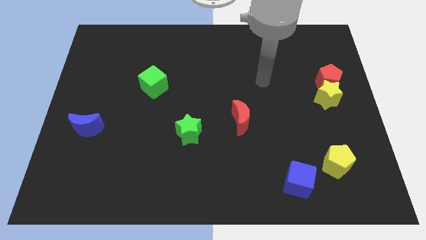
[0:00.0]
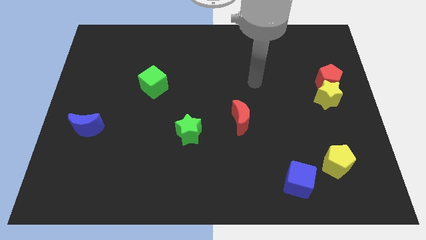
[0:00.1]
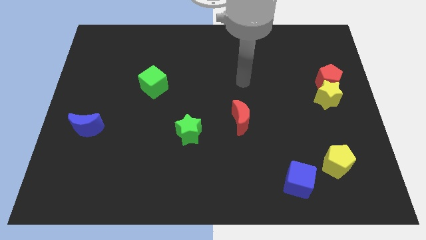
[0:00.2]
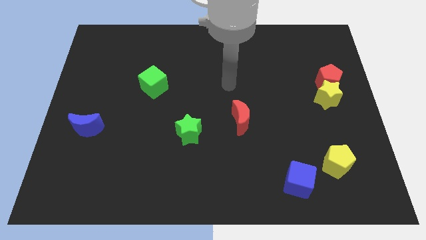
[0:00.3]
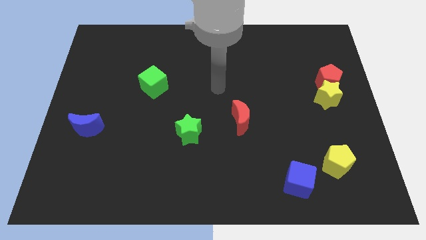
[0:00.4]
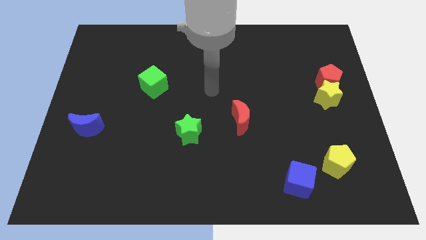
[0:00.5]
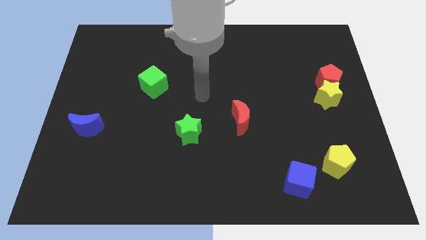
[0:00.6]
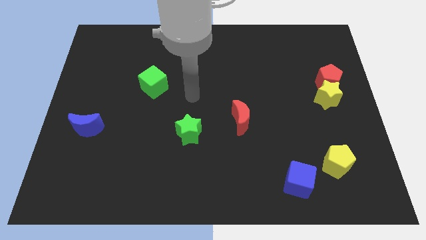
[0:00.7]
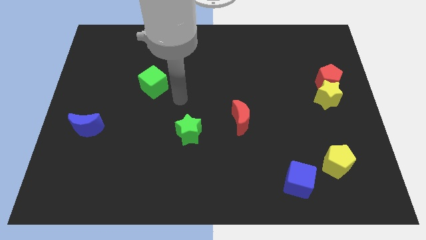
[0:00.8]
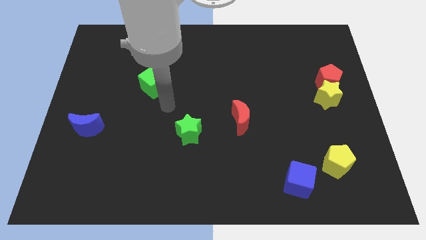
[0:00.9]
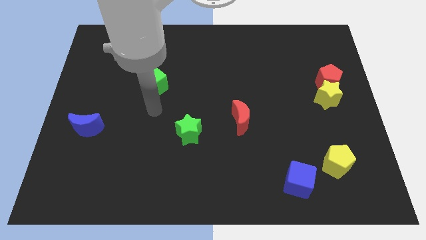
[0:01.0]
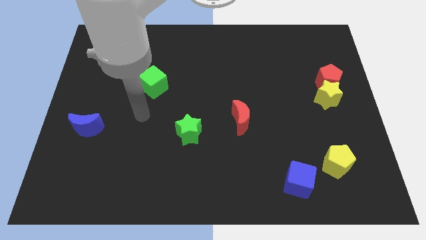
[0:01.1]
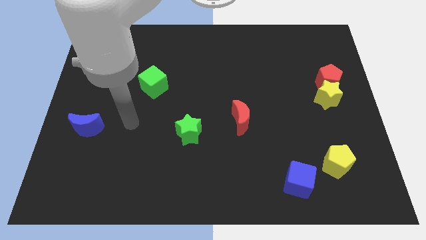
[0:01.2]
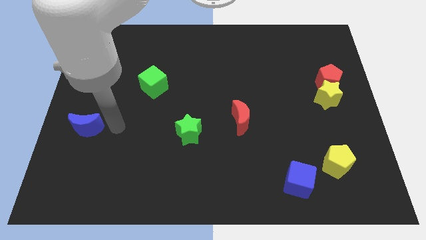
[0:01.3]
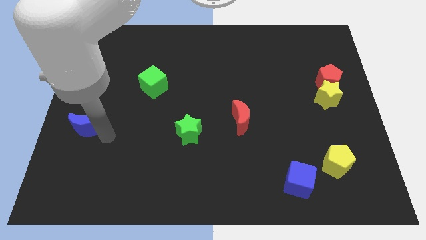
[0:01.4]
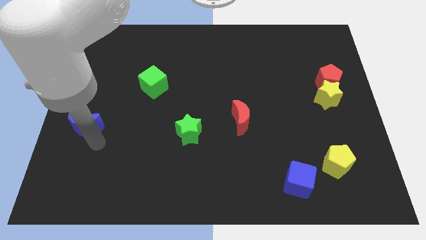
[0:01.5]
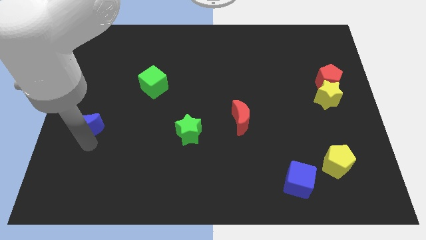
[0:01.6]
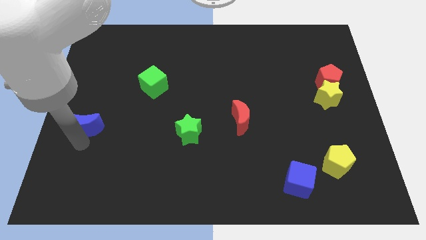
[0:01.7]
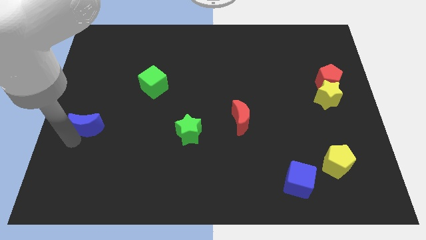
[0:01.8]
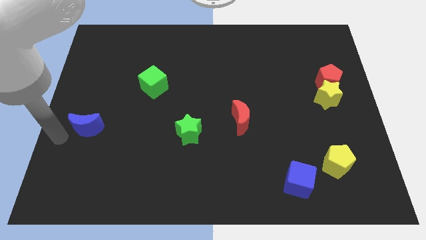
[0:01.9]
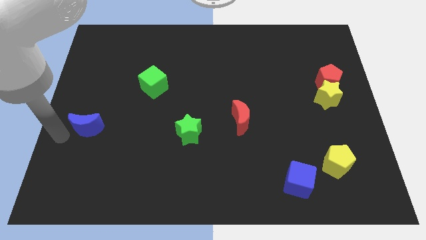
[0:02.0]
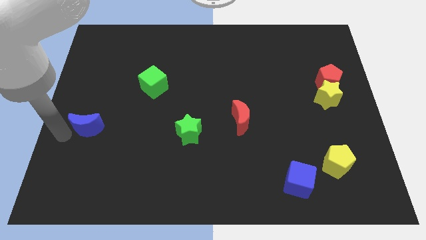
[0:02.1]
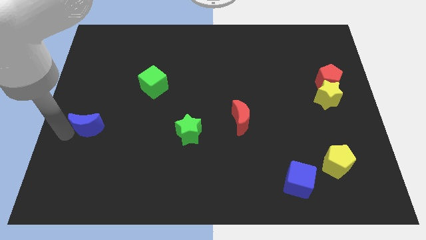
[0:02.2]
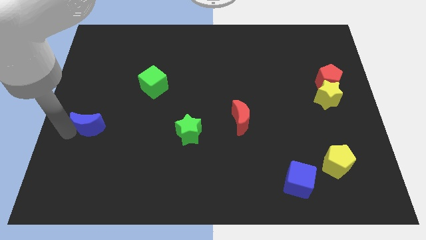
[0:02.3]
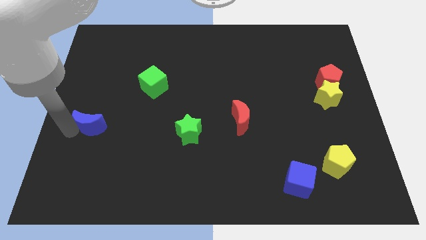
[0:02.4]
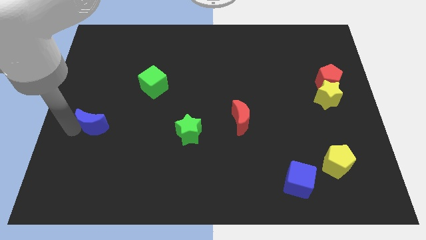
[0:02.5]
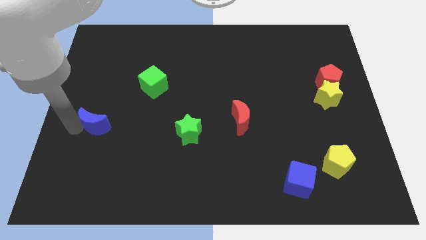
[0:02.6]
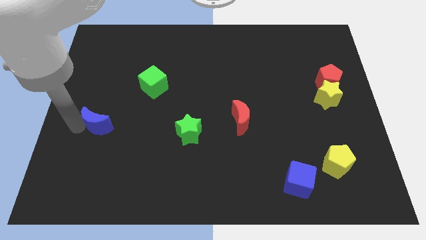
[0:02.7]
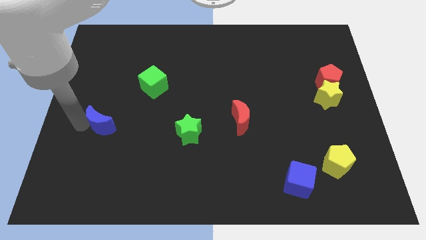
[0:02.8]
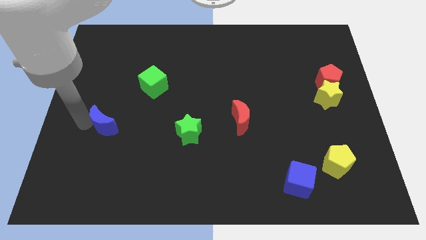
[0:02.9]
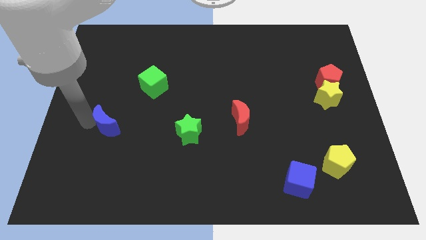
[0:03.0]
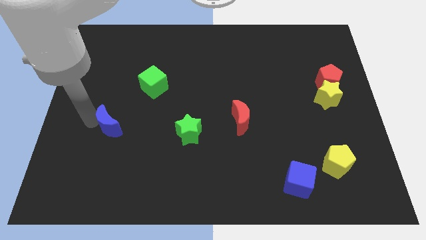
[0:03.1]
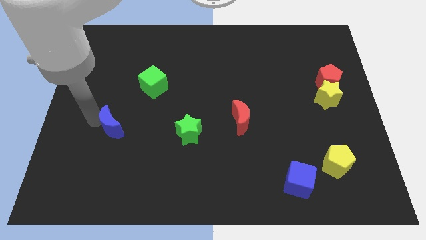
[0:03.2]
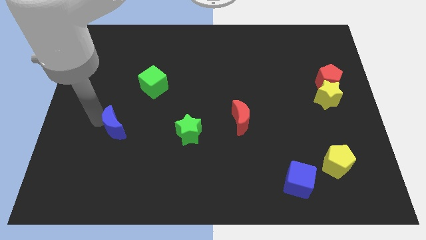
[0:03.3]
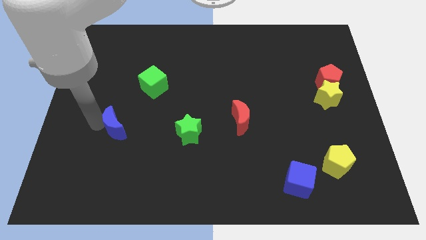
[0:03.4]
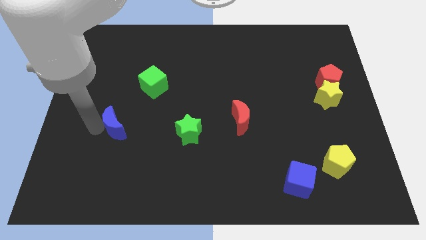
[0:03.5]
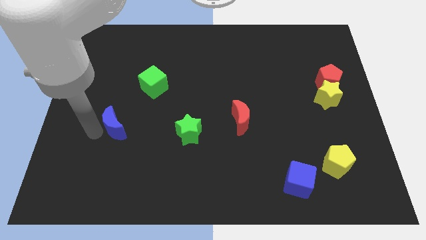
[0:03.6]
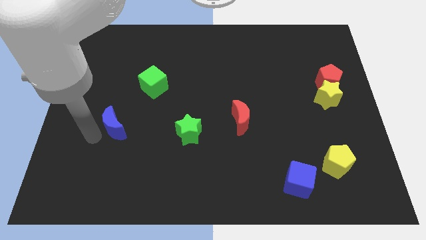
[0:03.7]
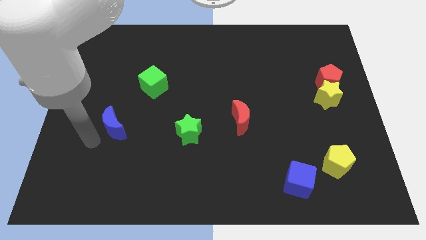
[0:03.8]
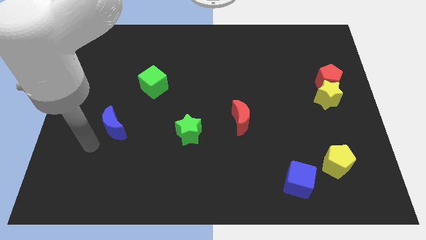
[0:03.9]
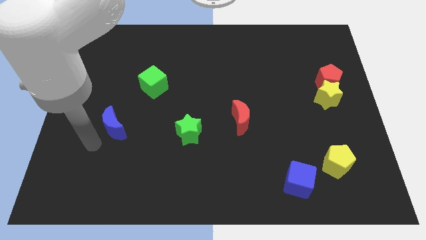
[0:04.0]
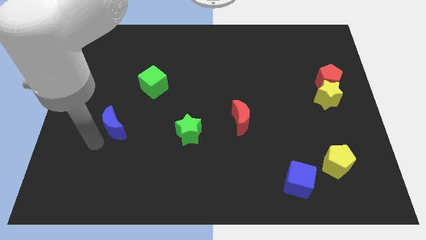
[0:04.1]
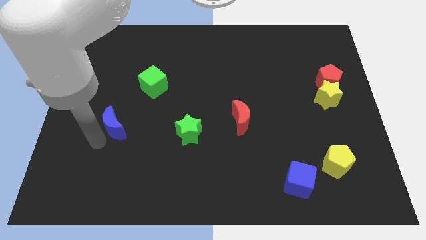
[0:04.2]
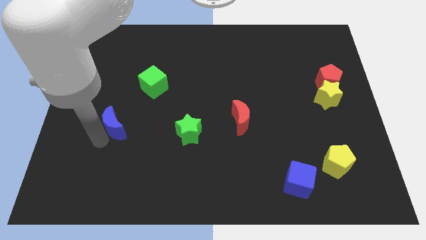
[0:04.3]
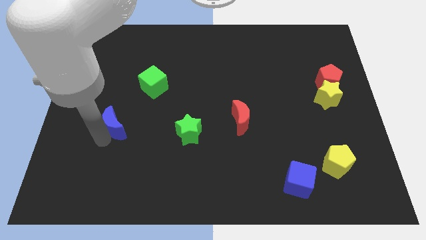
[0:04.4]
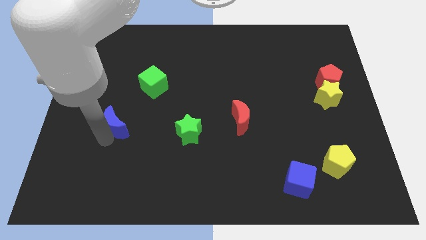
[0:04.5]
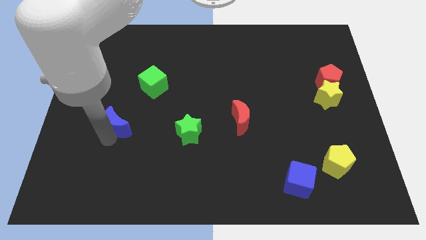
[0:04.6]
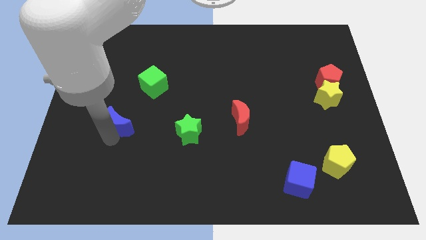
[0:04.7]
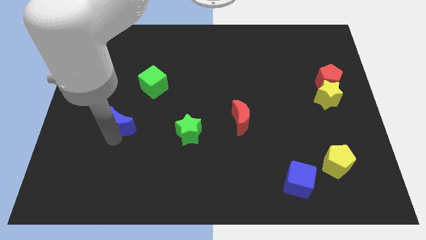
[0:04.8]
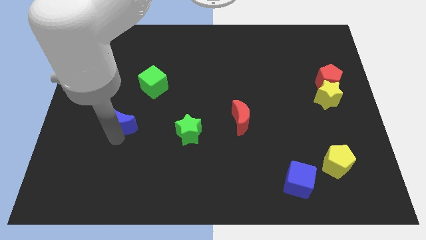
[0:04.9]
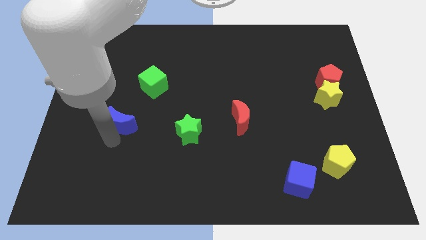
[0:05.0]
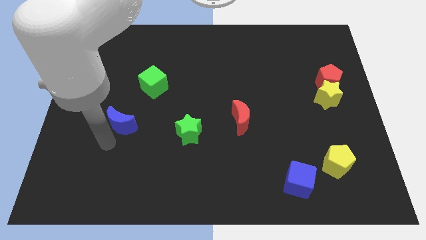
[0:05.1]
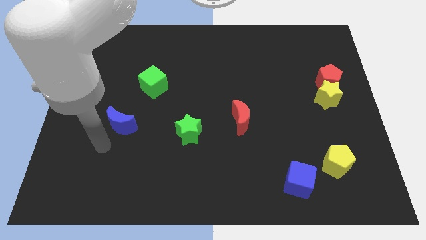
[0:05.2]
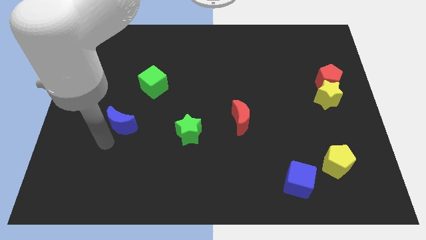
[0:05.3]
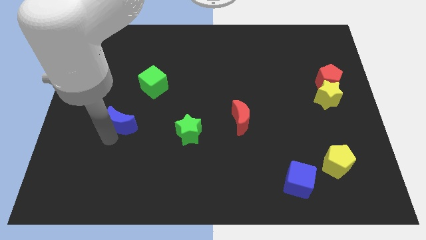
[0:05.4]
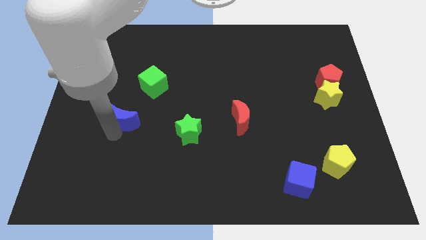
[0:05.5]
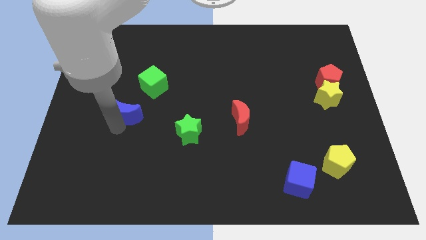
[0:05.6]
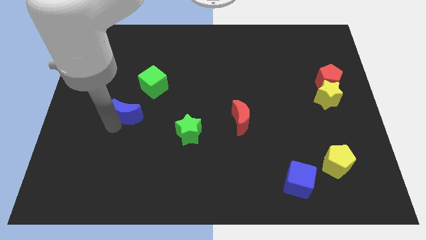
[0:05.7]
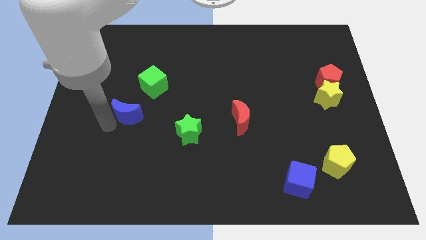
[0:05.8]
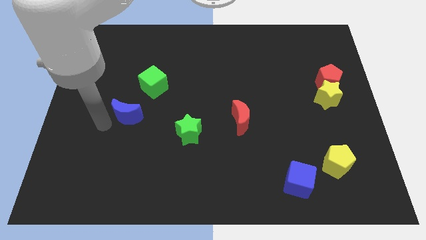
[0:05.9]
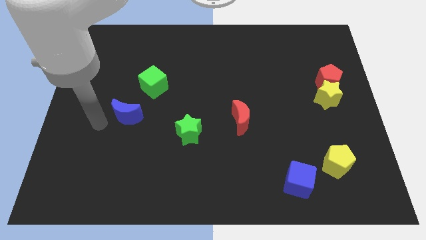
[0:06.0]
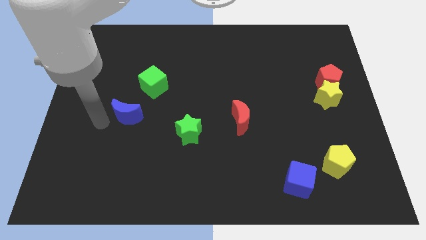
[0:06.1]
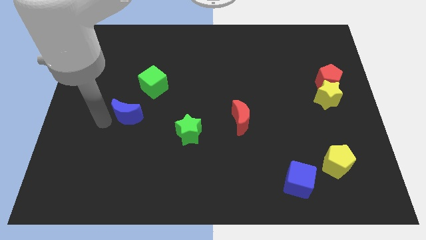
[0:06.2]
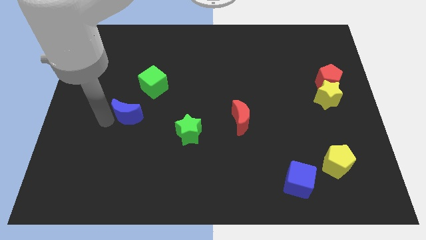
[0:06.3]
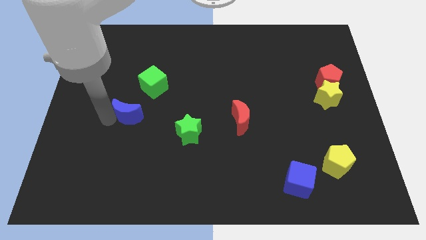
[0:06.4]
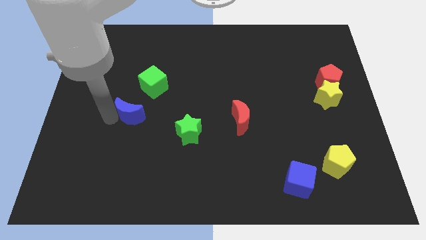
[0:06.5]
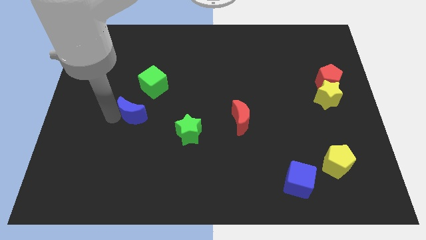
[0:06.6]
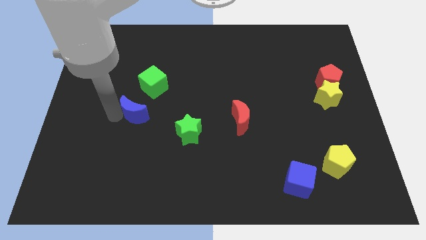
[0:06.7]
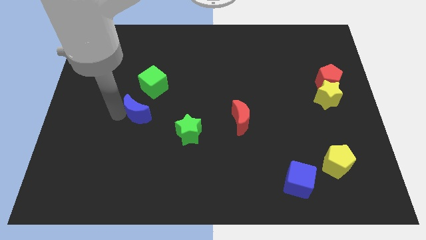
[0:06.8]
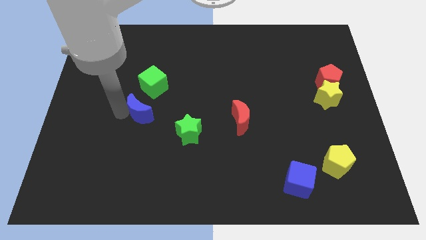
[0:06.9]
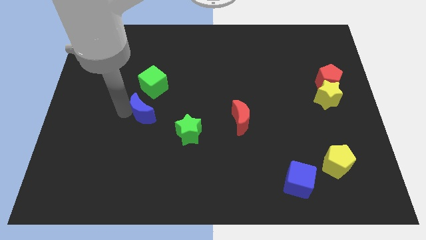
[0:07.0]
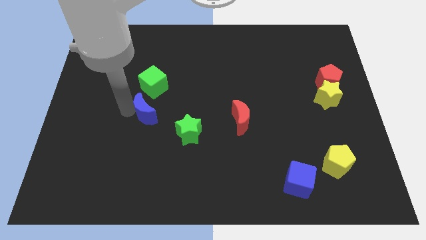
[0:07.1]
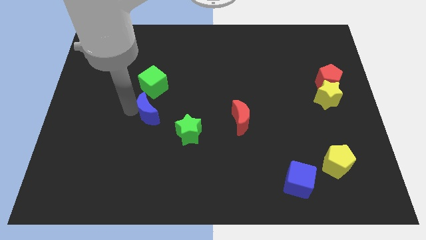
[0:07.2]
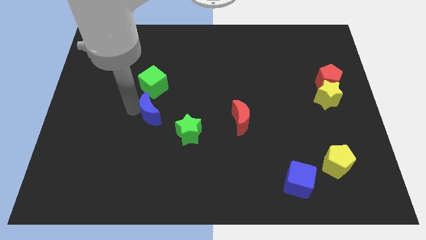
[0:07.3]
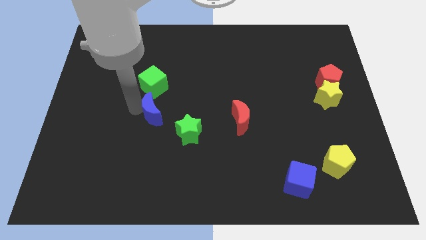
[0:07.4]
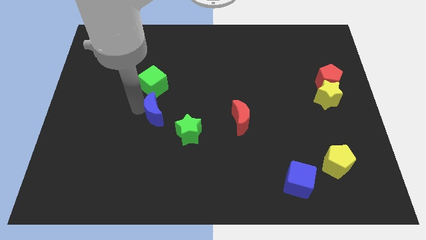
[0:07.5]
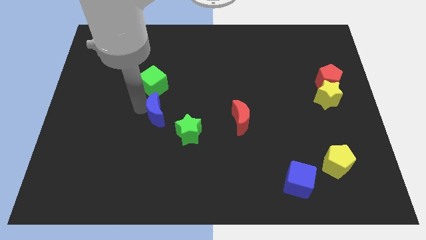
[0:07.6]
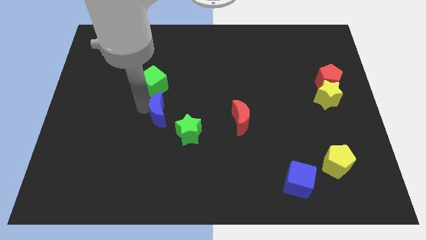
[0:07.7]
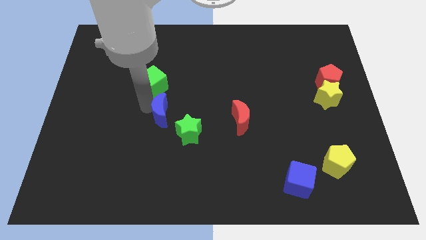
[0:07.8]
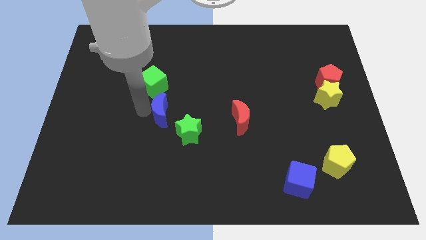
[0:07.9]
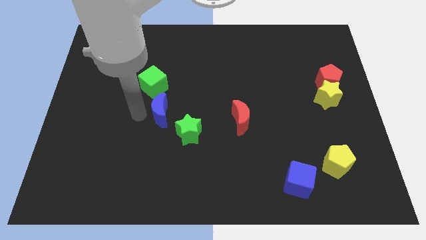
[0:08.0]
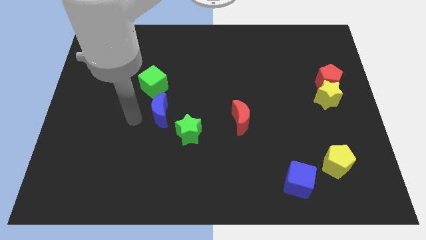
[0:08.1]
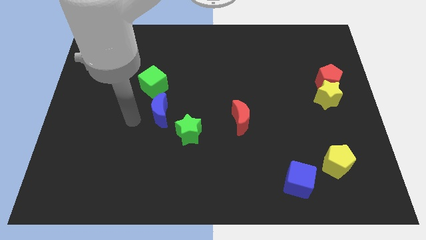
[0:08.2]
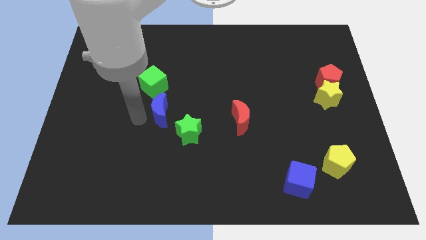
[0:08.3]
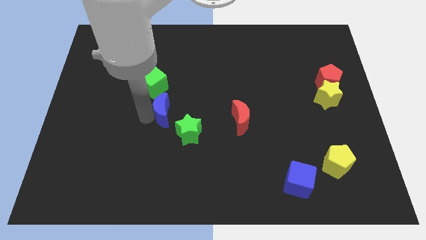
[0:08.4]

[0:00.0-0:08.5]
put the blue moon to the center of the board
